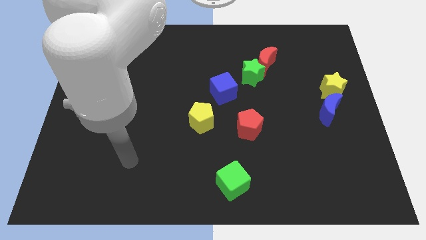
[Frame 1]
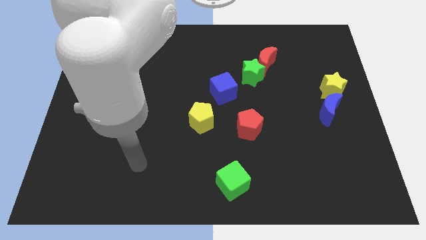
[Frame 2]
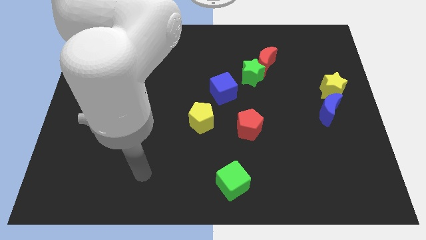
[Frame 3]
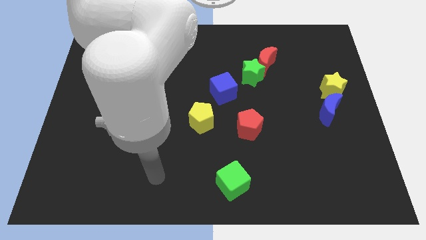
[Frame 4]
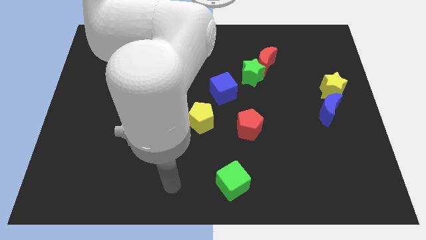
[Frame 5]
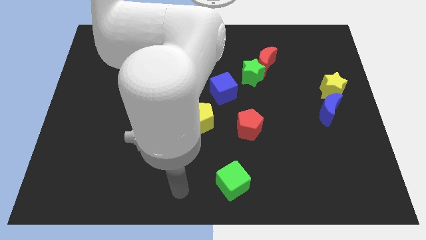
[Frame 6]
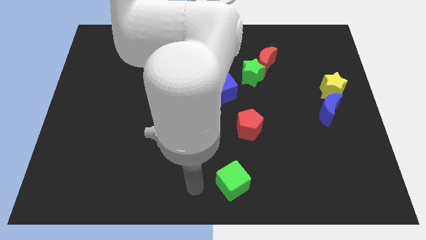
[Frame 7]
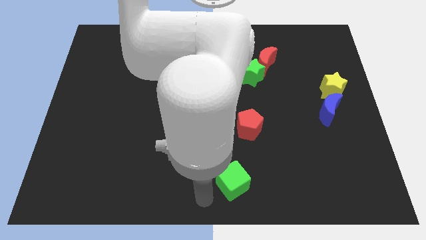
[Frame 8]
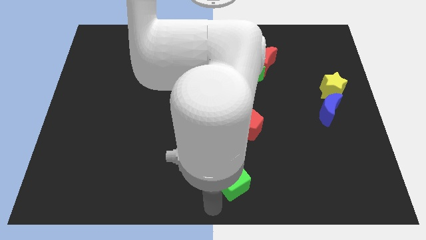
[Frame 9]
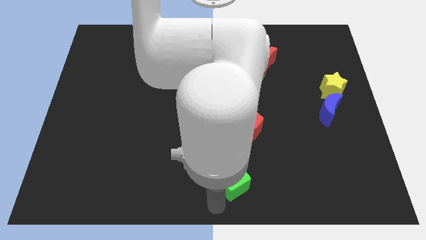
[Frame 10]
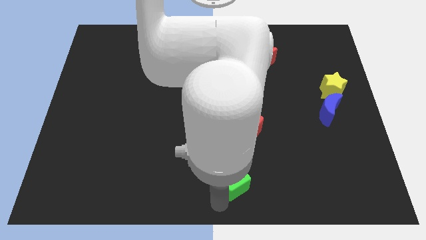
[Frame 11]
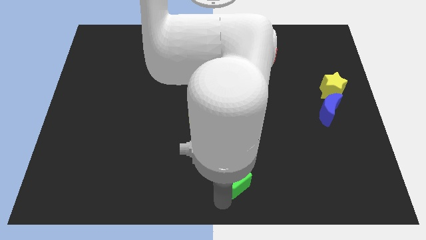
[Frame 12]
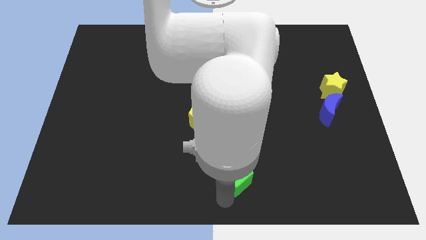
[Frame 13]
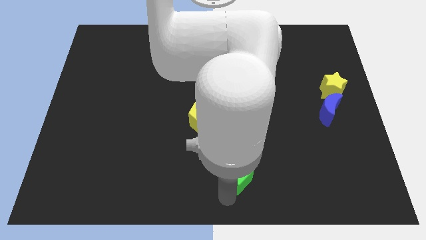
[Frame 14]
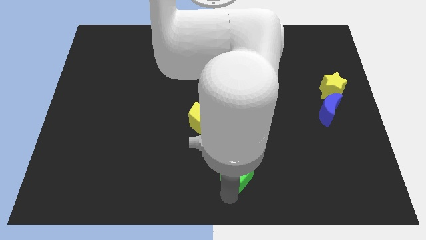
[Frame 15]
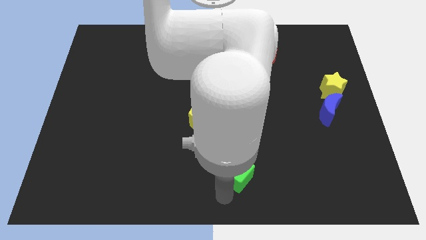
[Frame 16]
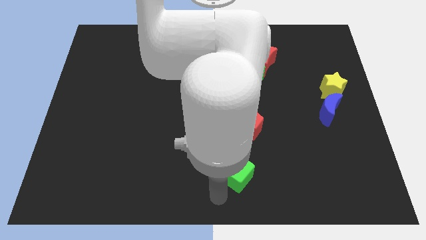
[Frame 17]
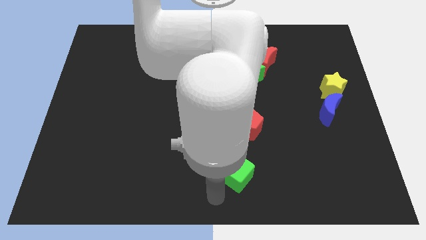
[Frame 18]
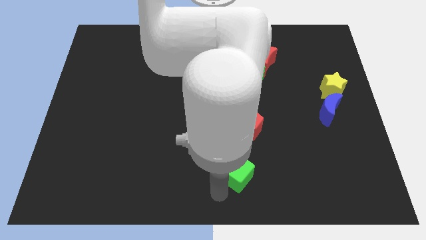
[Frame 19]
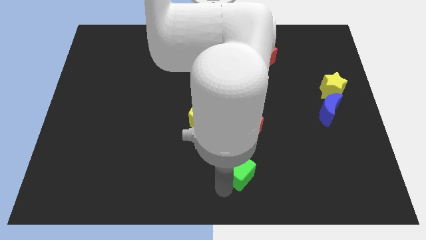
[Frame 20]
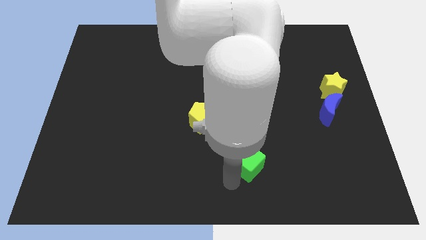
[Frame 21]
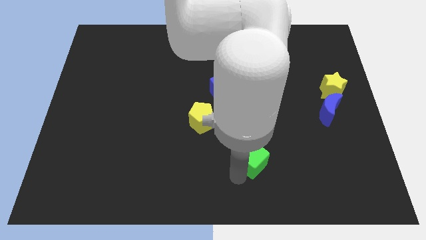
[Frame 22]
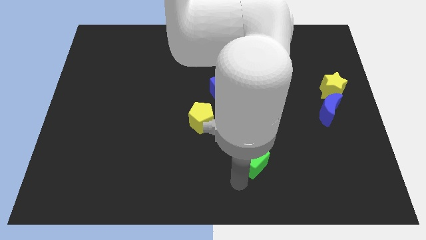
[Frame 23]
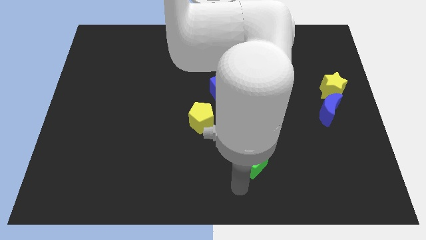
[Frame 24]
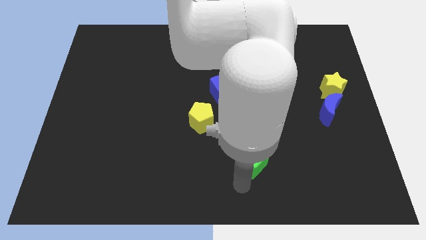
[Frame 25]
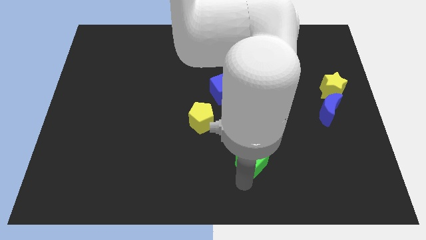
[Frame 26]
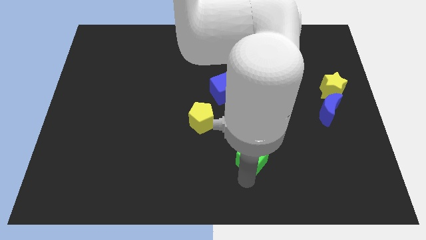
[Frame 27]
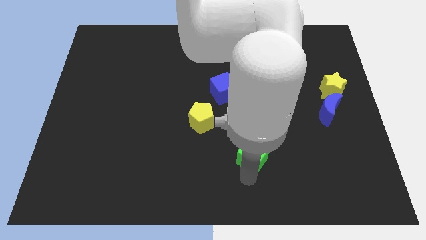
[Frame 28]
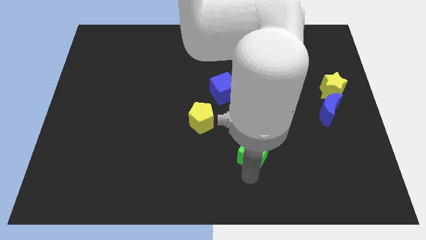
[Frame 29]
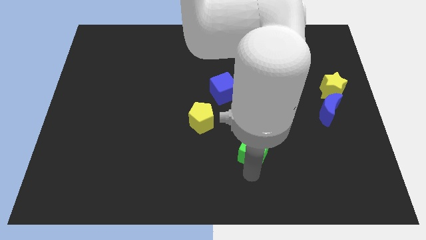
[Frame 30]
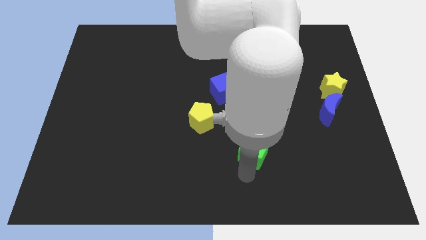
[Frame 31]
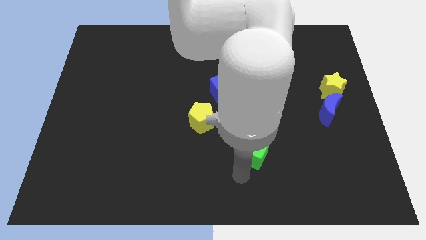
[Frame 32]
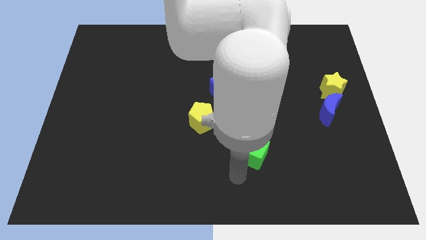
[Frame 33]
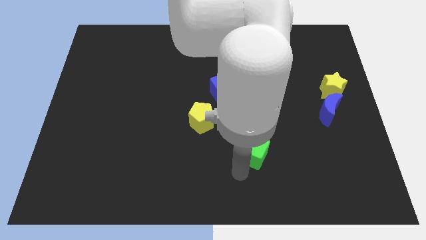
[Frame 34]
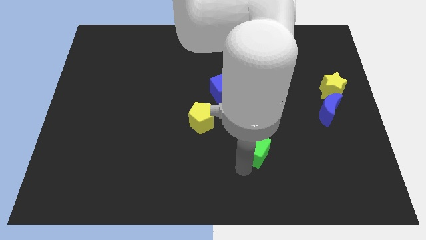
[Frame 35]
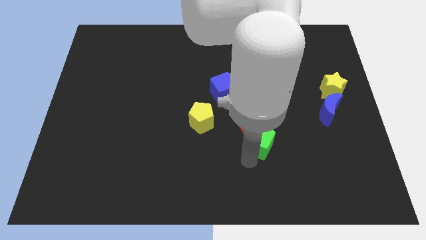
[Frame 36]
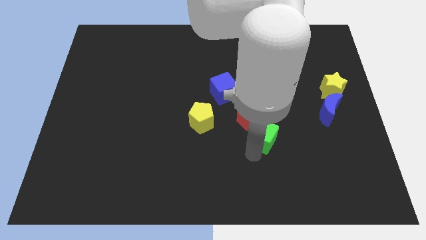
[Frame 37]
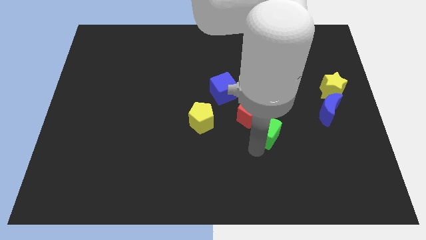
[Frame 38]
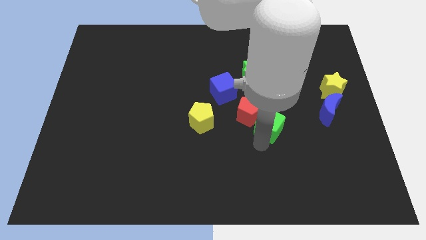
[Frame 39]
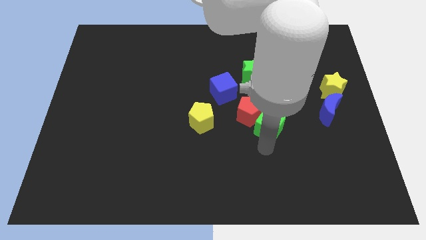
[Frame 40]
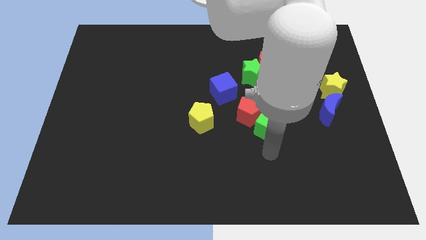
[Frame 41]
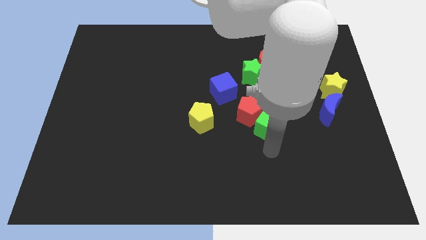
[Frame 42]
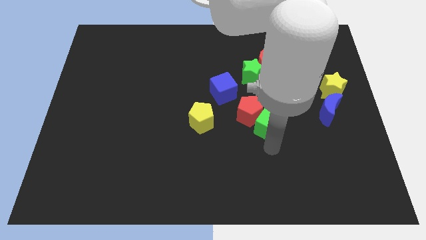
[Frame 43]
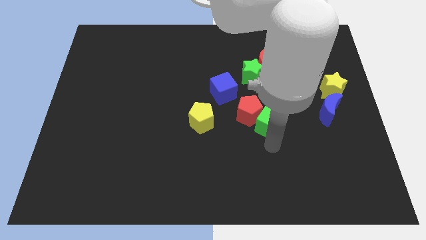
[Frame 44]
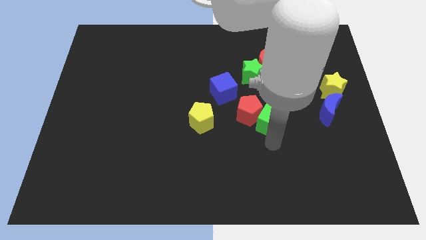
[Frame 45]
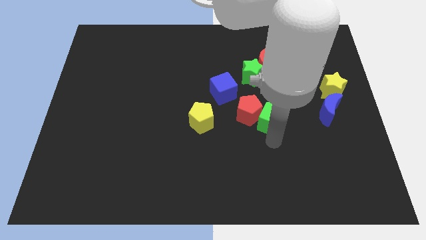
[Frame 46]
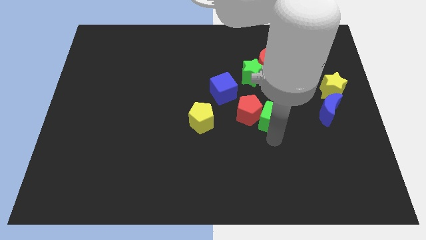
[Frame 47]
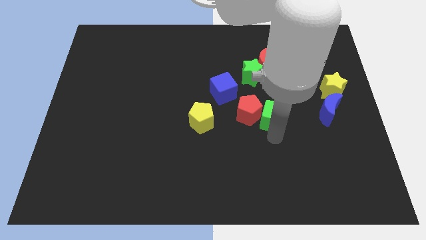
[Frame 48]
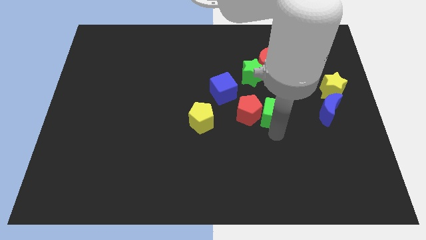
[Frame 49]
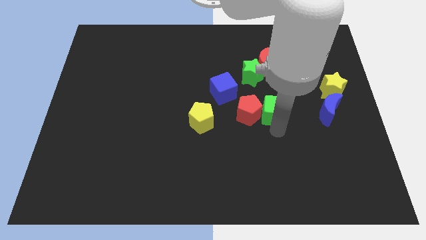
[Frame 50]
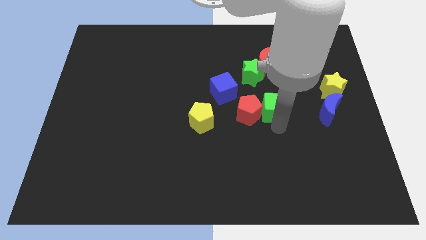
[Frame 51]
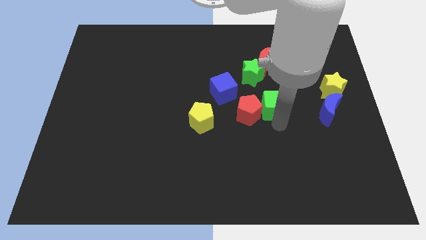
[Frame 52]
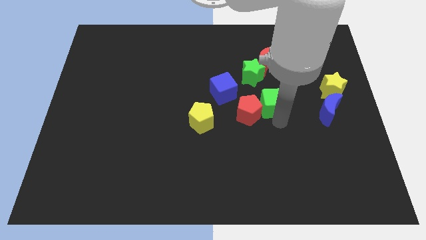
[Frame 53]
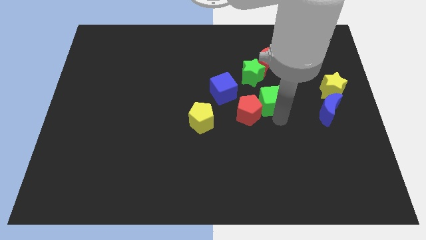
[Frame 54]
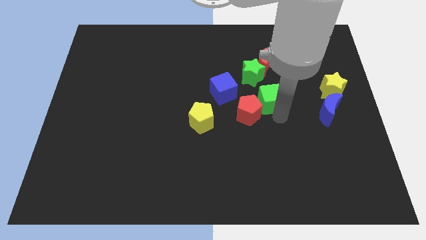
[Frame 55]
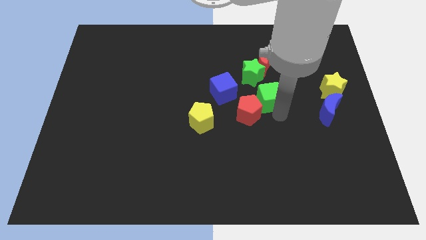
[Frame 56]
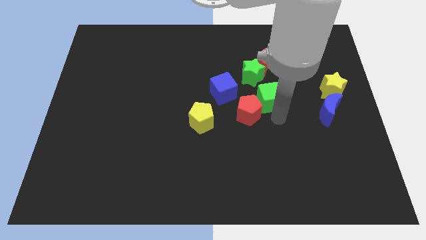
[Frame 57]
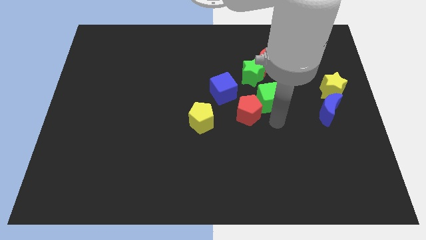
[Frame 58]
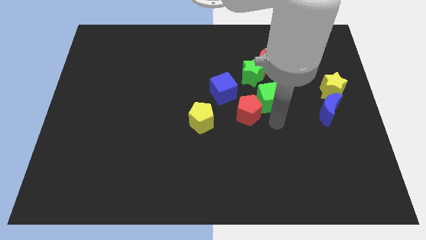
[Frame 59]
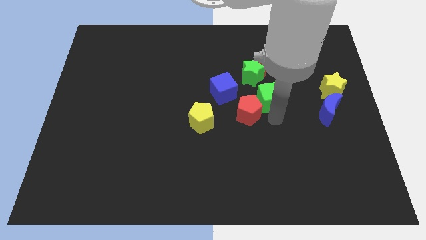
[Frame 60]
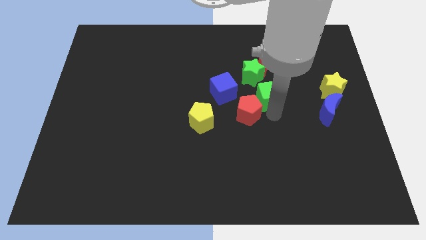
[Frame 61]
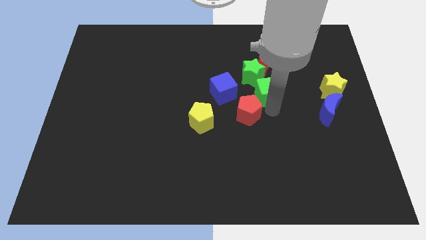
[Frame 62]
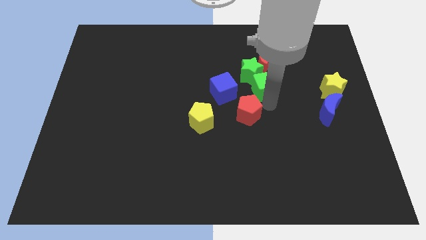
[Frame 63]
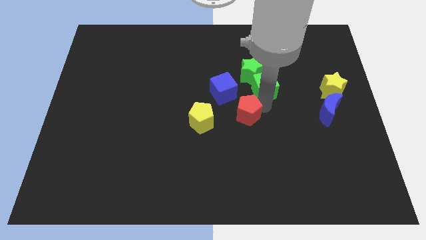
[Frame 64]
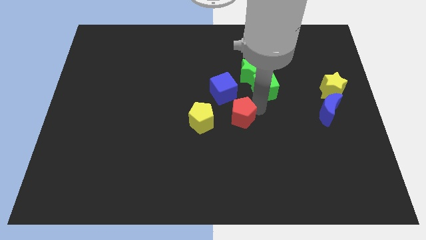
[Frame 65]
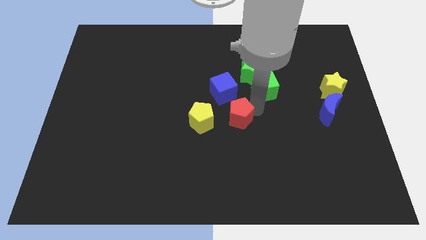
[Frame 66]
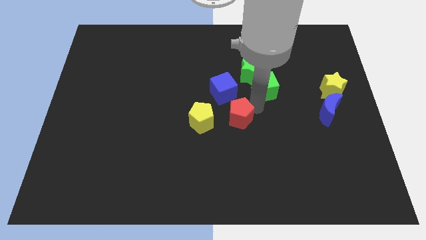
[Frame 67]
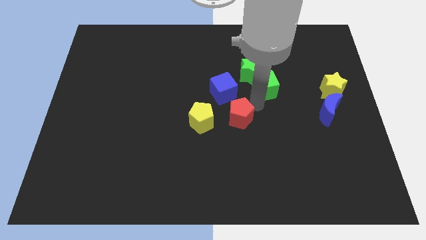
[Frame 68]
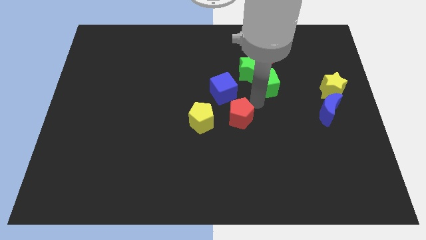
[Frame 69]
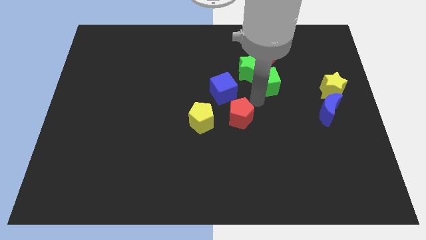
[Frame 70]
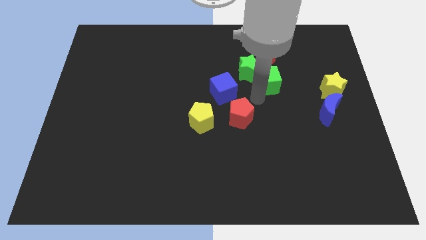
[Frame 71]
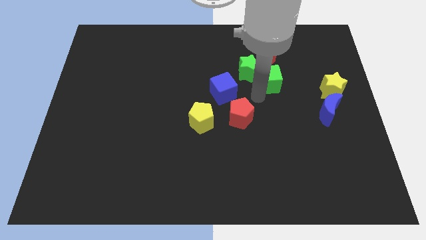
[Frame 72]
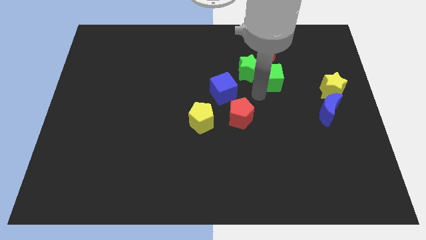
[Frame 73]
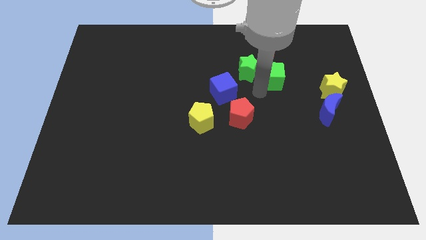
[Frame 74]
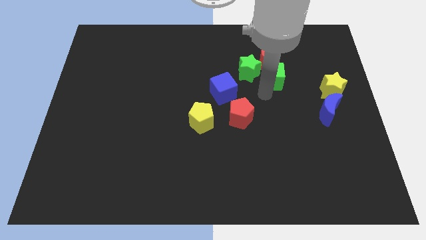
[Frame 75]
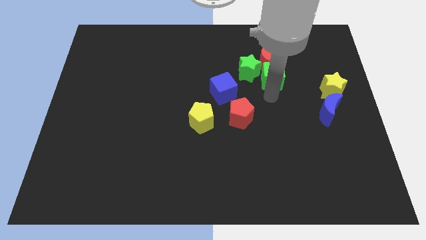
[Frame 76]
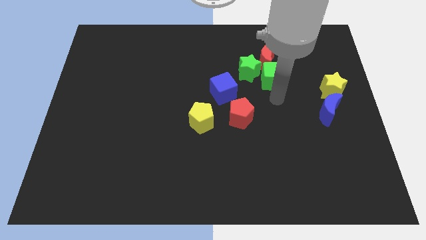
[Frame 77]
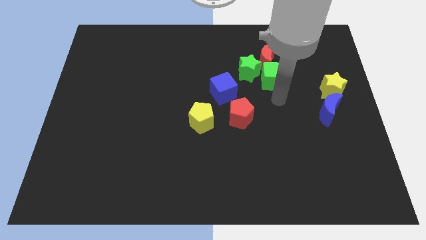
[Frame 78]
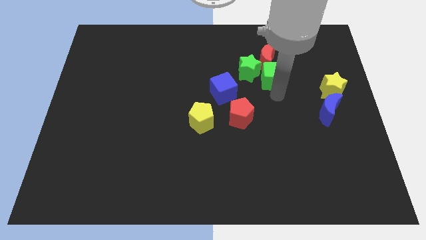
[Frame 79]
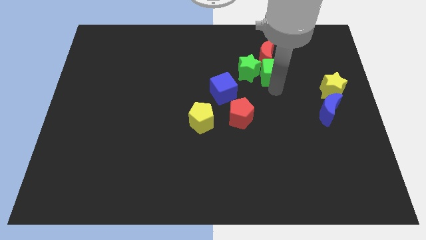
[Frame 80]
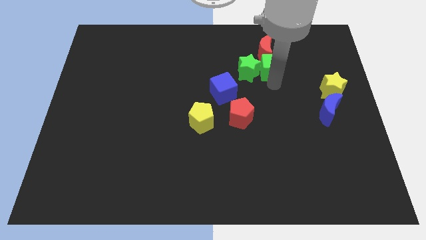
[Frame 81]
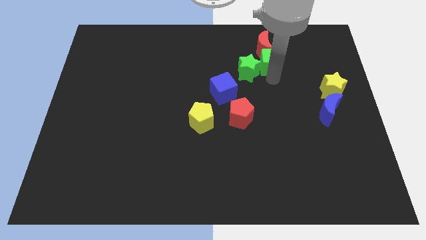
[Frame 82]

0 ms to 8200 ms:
move the green cube close to the red moon

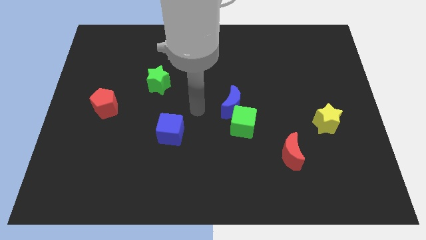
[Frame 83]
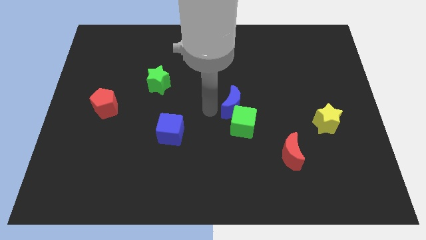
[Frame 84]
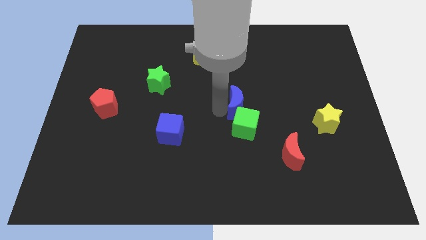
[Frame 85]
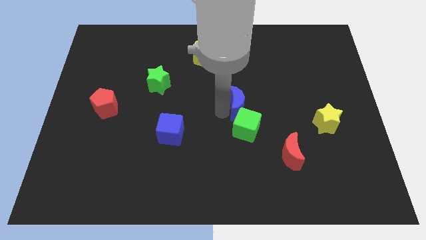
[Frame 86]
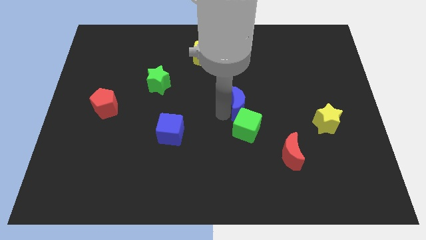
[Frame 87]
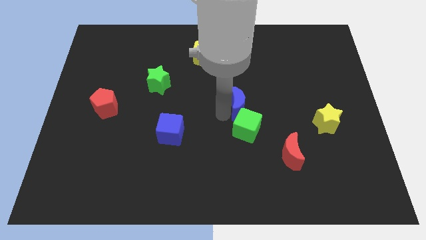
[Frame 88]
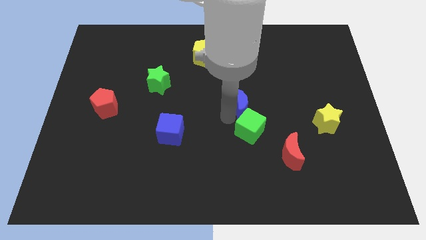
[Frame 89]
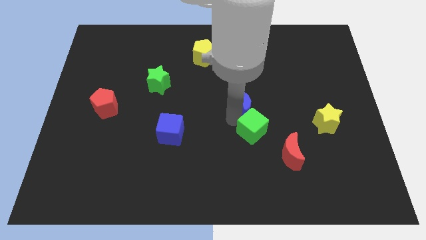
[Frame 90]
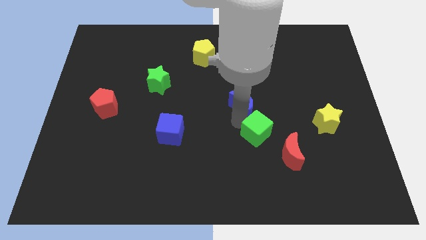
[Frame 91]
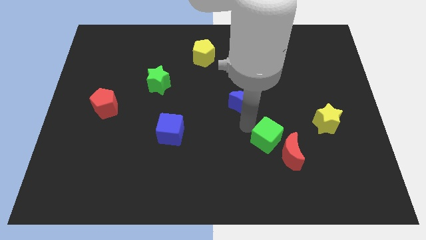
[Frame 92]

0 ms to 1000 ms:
slide the green cube next to the red moon
